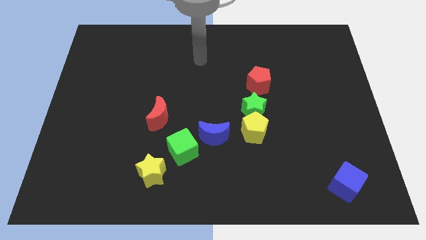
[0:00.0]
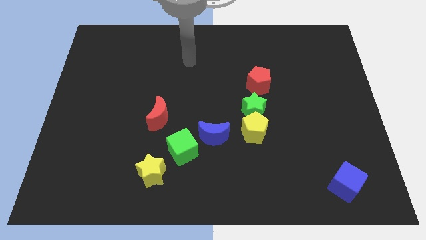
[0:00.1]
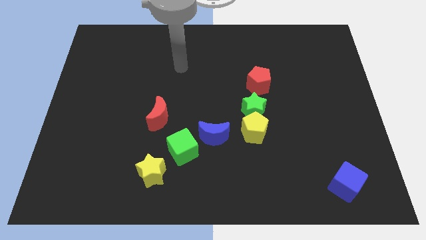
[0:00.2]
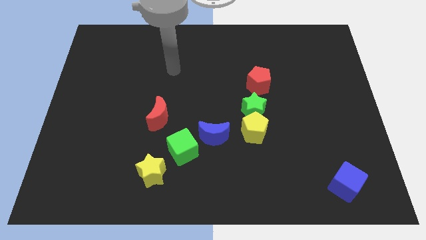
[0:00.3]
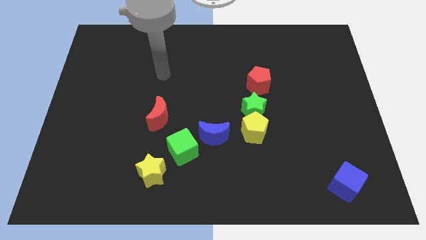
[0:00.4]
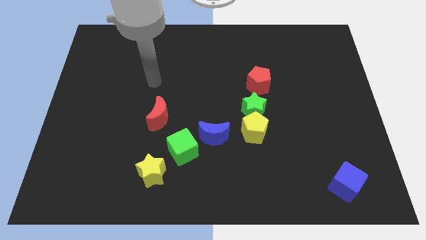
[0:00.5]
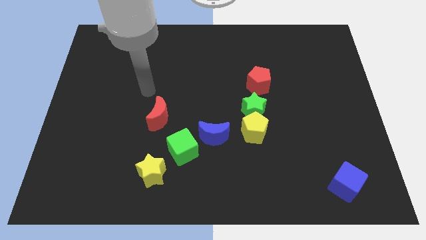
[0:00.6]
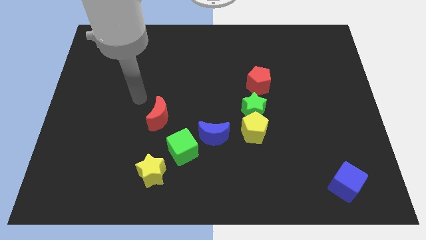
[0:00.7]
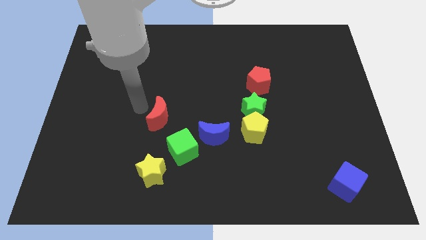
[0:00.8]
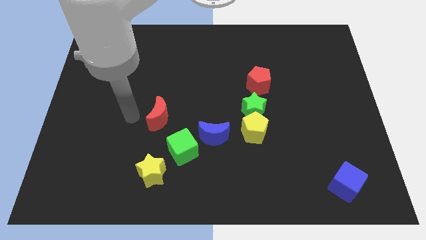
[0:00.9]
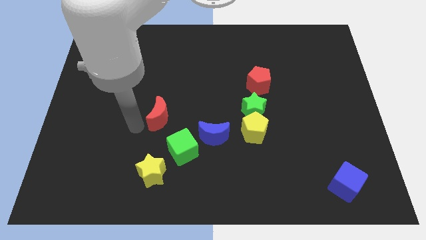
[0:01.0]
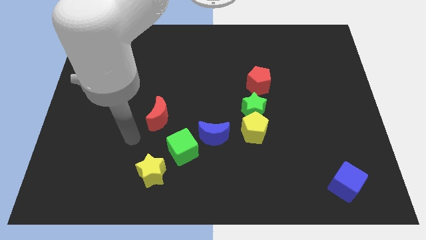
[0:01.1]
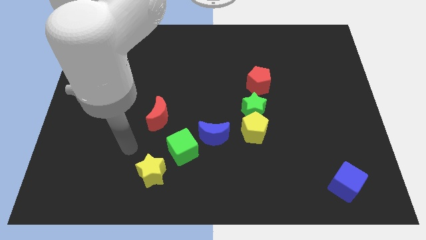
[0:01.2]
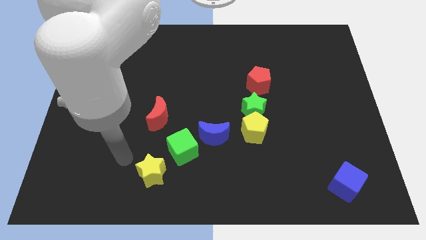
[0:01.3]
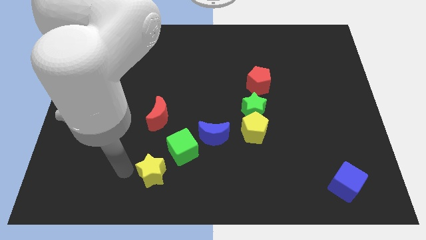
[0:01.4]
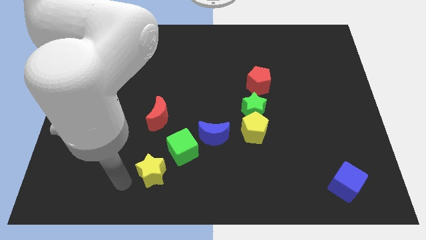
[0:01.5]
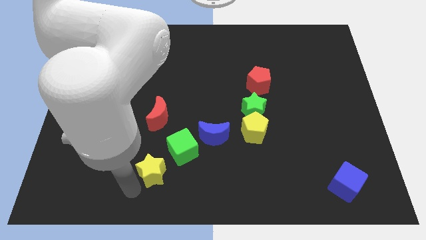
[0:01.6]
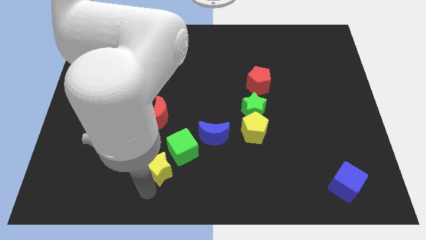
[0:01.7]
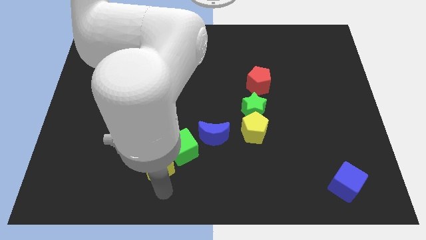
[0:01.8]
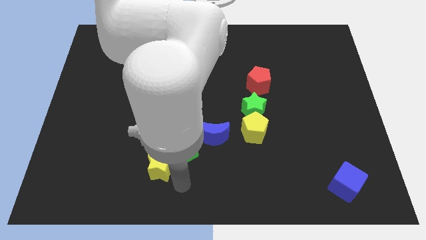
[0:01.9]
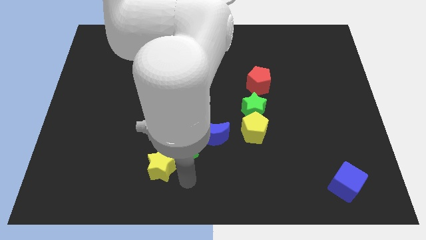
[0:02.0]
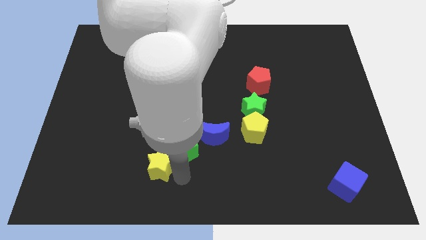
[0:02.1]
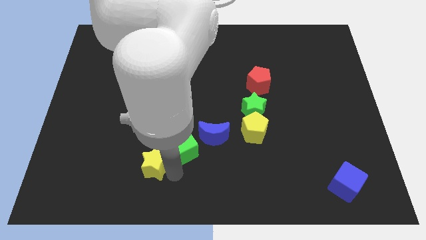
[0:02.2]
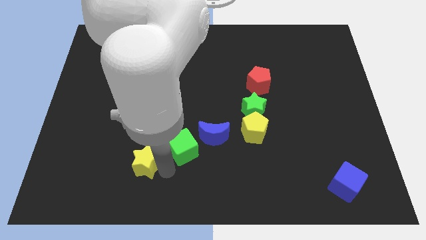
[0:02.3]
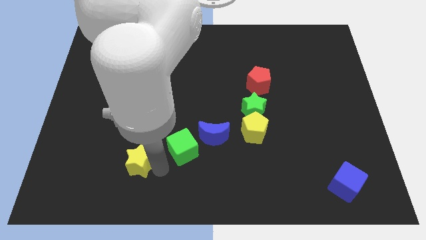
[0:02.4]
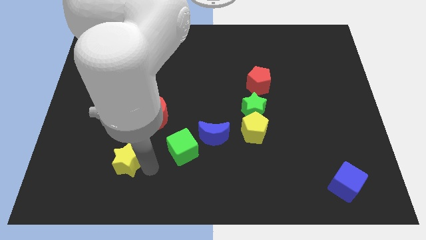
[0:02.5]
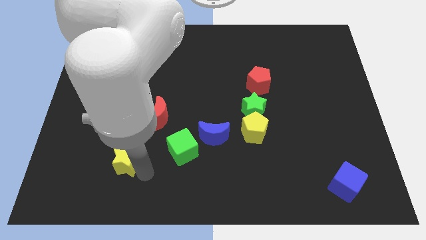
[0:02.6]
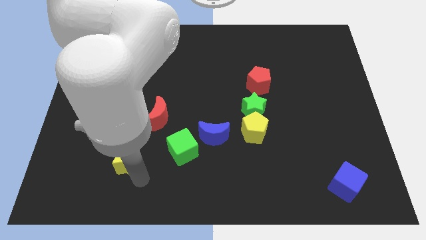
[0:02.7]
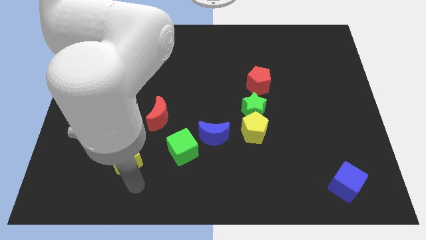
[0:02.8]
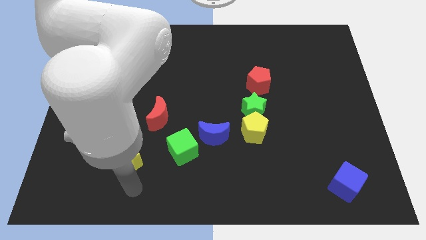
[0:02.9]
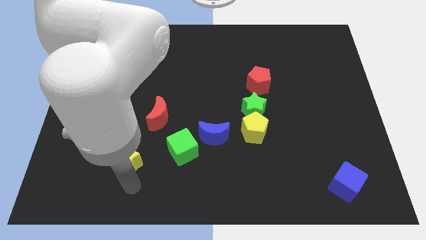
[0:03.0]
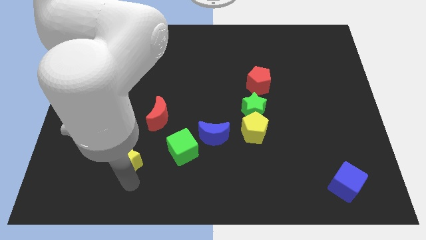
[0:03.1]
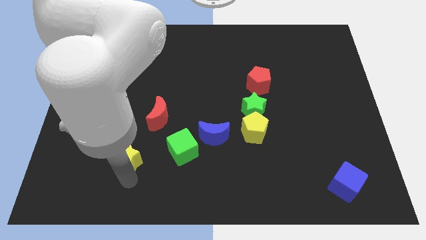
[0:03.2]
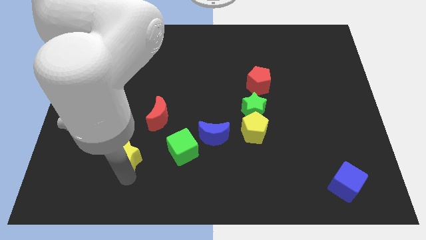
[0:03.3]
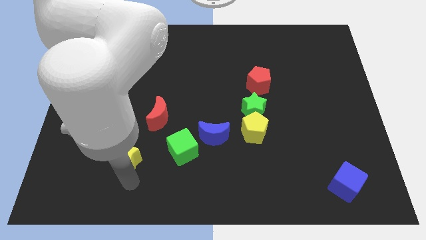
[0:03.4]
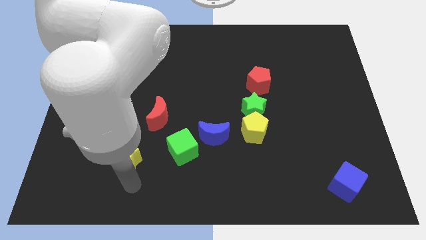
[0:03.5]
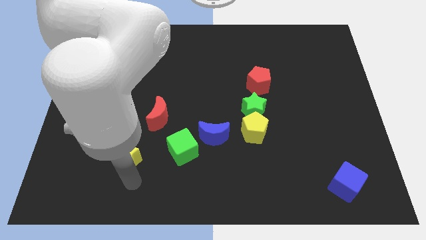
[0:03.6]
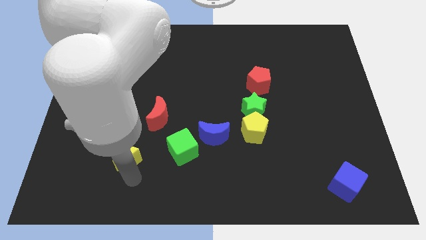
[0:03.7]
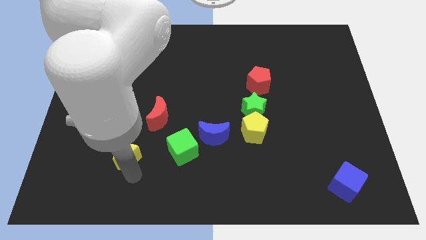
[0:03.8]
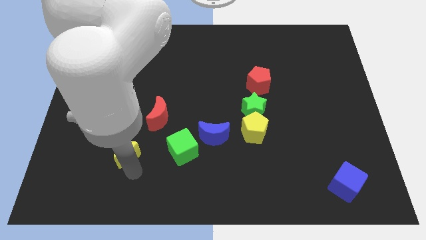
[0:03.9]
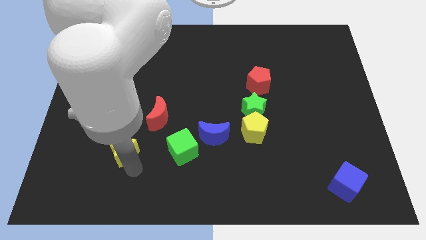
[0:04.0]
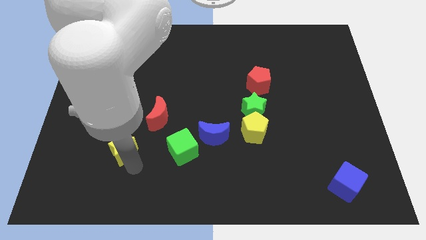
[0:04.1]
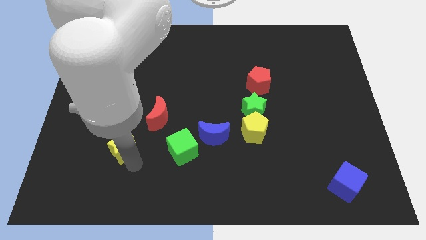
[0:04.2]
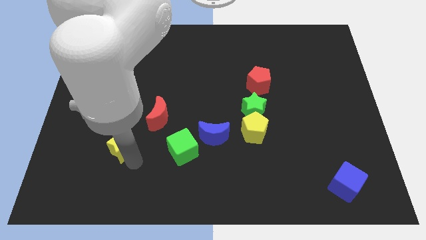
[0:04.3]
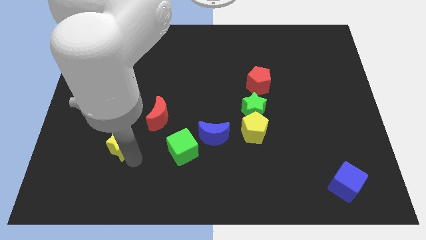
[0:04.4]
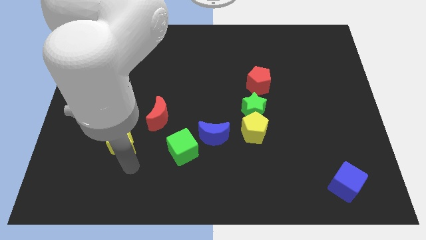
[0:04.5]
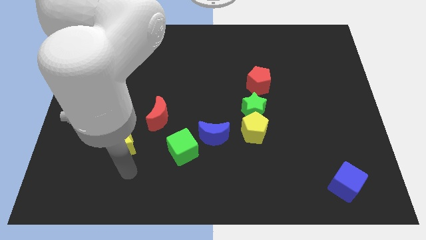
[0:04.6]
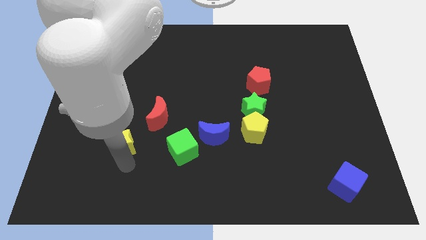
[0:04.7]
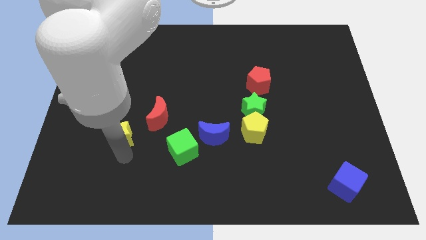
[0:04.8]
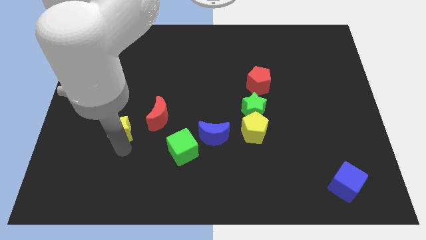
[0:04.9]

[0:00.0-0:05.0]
slide the yellow star to the left of the red moon

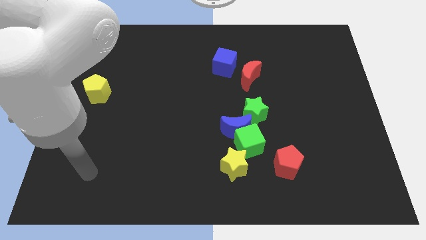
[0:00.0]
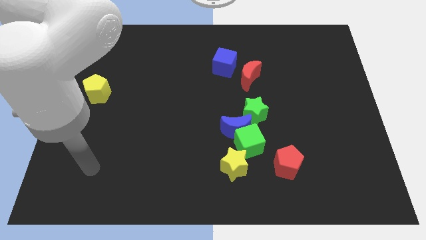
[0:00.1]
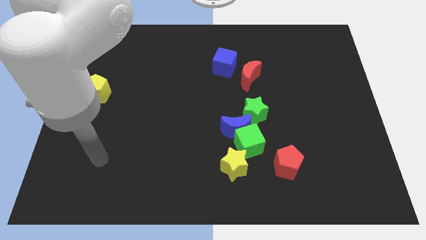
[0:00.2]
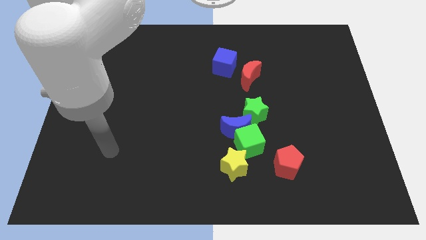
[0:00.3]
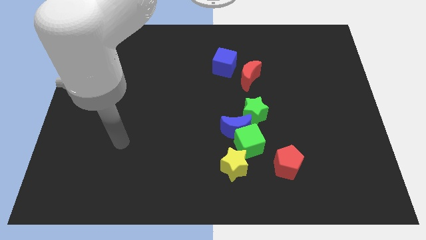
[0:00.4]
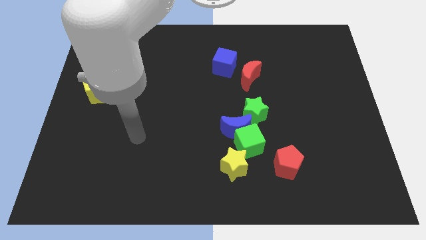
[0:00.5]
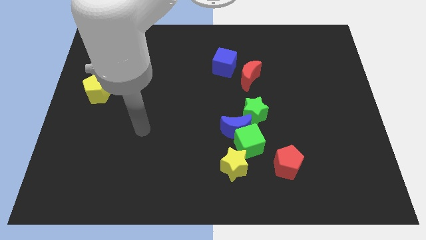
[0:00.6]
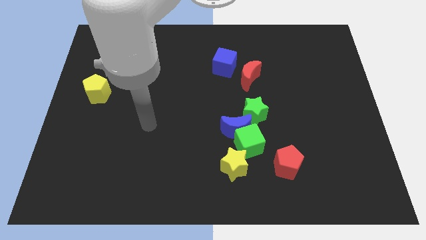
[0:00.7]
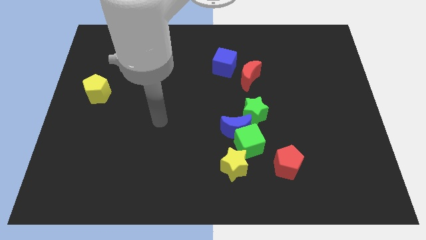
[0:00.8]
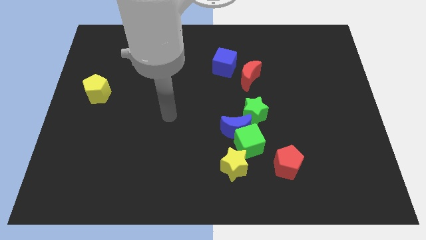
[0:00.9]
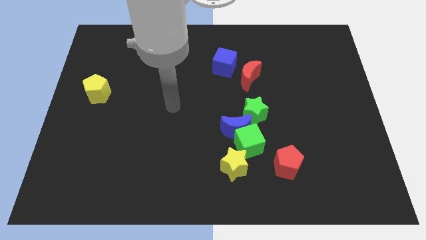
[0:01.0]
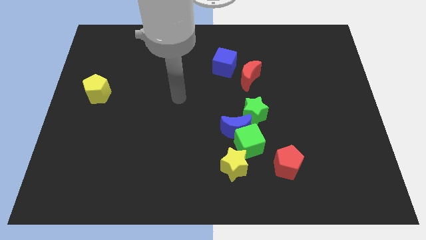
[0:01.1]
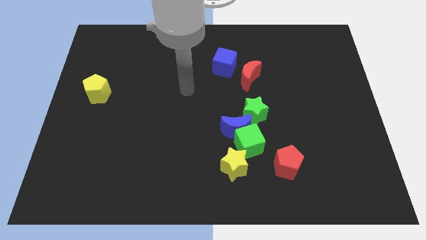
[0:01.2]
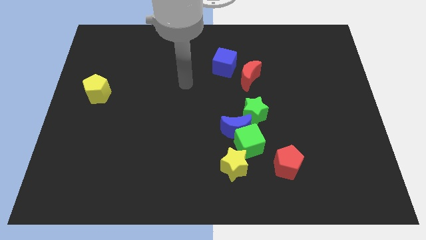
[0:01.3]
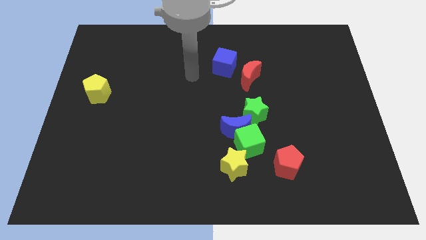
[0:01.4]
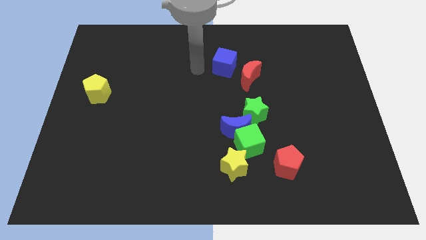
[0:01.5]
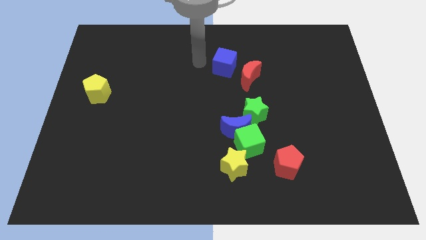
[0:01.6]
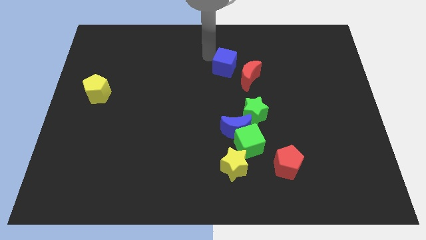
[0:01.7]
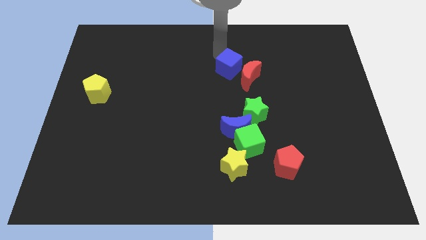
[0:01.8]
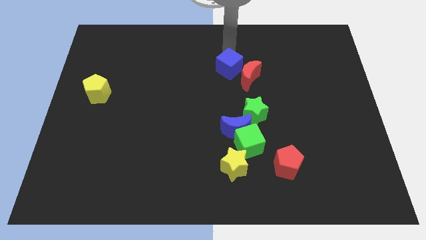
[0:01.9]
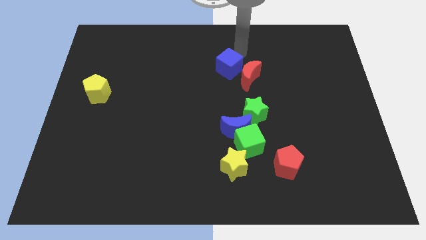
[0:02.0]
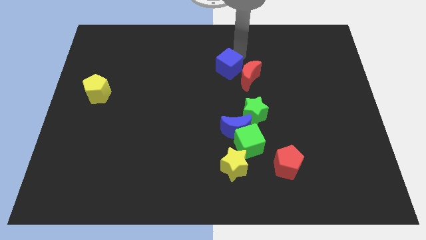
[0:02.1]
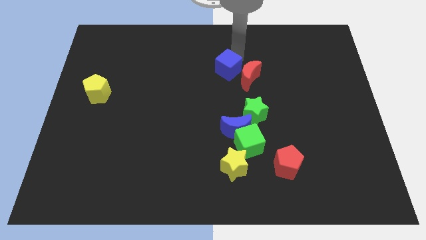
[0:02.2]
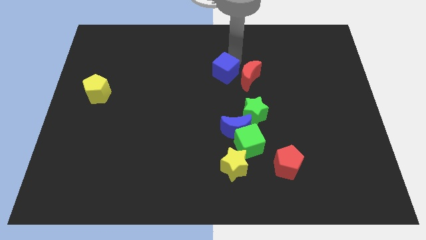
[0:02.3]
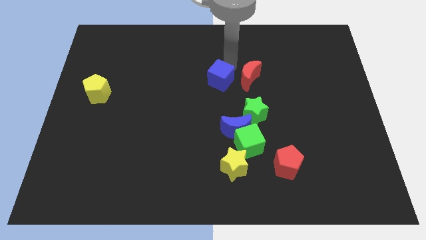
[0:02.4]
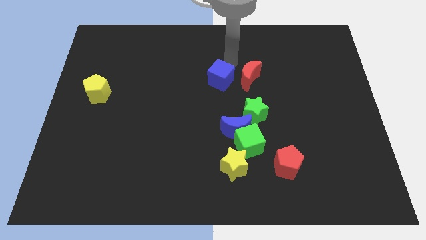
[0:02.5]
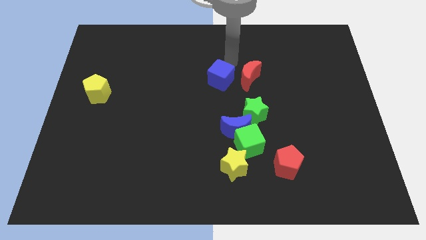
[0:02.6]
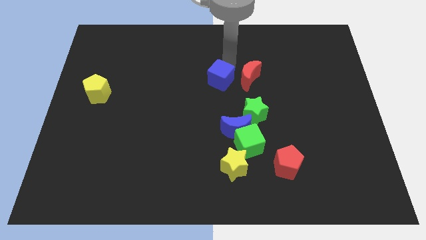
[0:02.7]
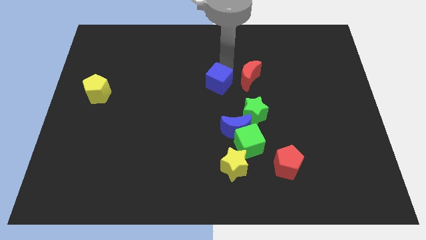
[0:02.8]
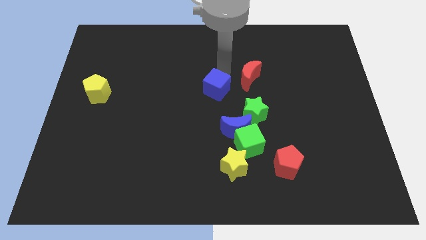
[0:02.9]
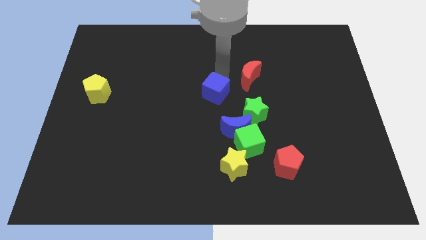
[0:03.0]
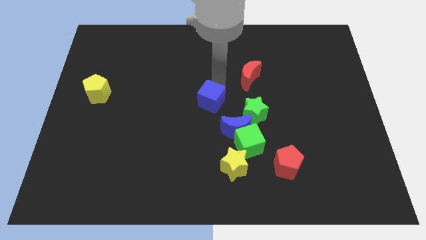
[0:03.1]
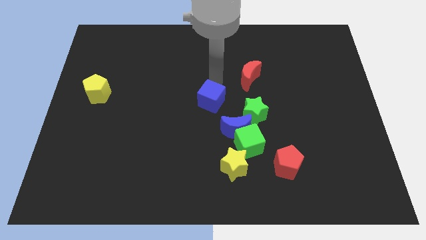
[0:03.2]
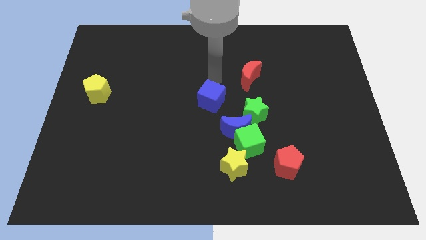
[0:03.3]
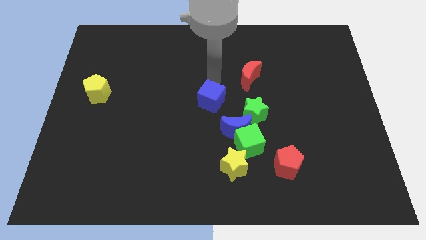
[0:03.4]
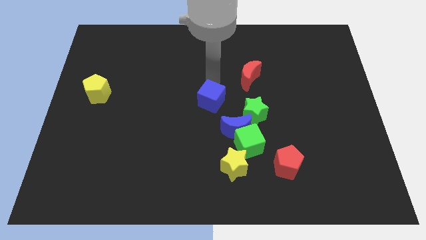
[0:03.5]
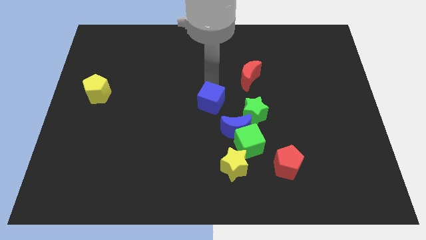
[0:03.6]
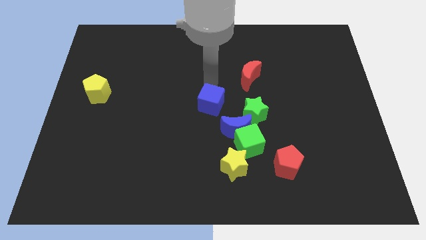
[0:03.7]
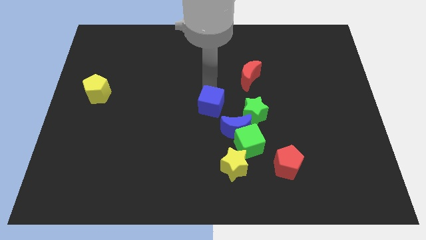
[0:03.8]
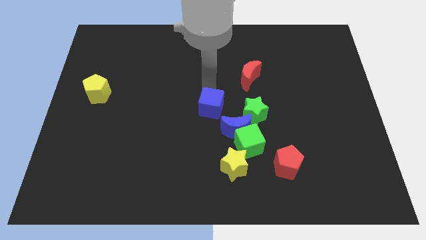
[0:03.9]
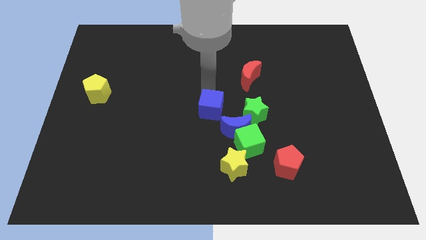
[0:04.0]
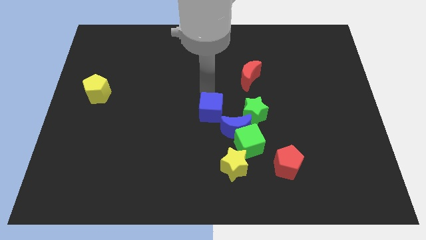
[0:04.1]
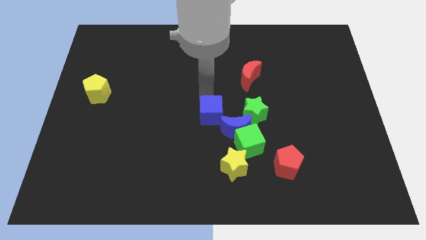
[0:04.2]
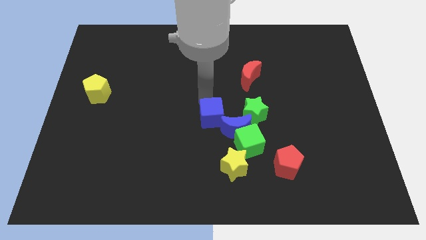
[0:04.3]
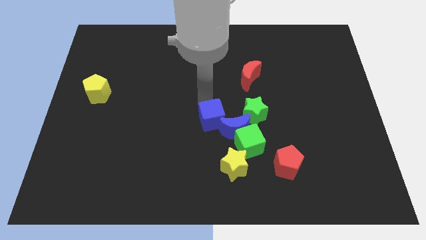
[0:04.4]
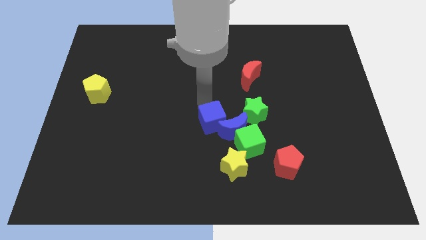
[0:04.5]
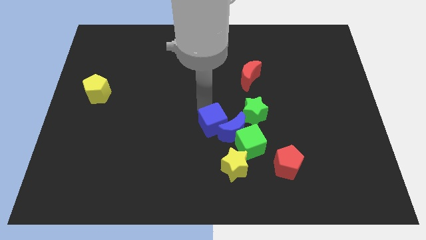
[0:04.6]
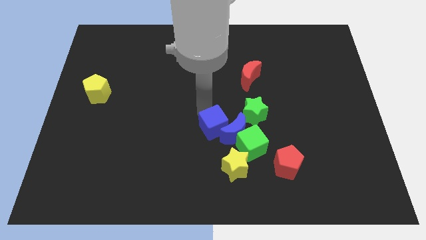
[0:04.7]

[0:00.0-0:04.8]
slide the blue cube to the bottom left of the green star
